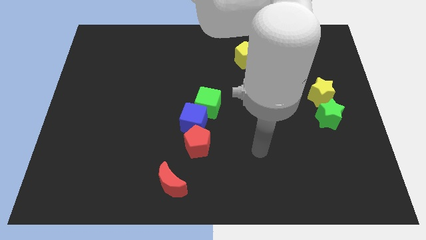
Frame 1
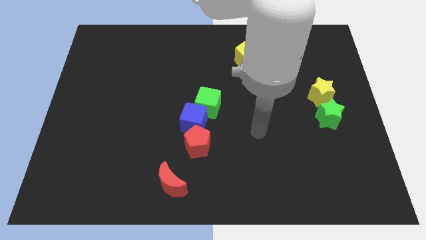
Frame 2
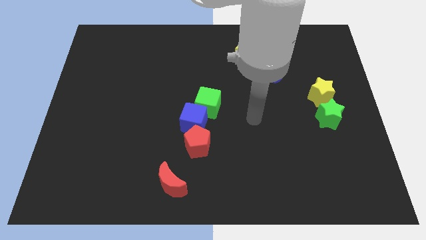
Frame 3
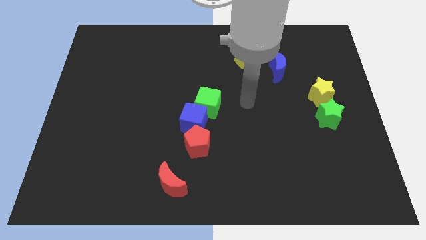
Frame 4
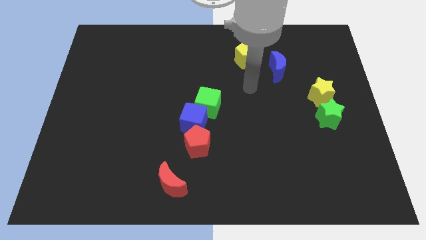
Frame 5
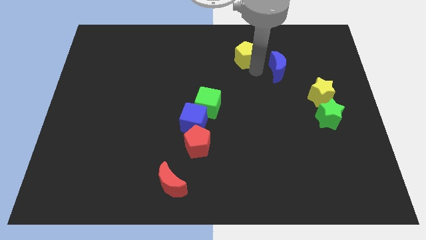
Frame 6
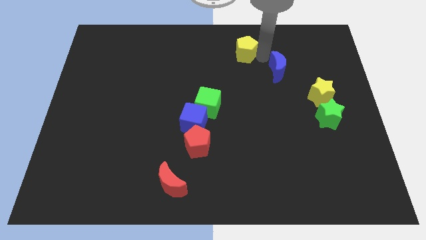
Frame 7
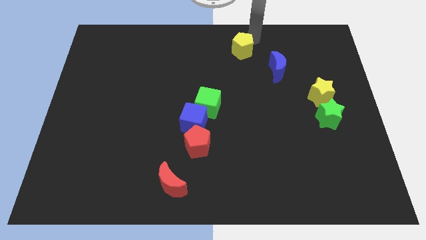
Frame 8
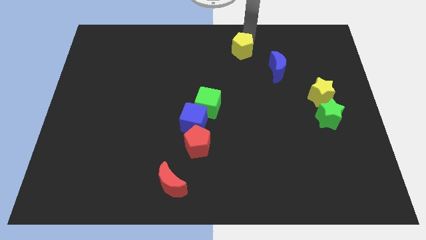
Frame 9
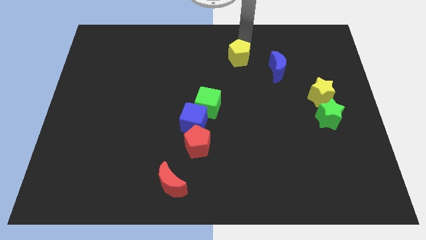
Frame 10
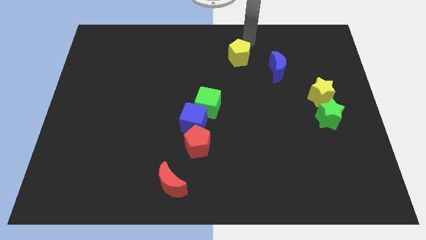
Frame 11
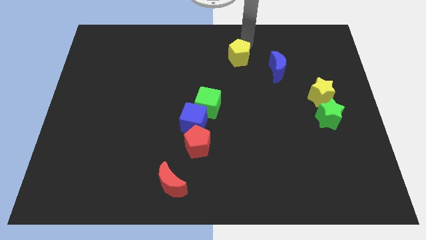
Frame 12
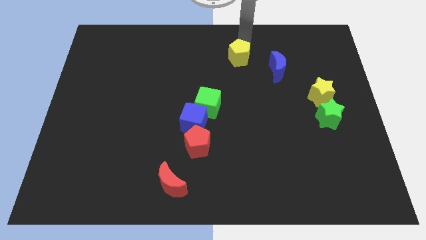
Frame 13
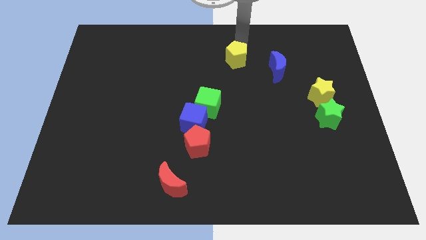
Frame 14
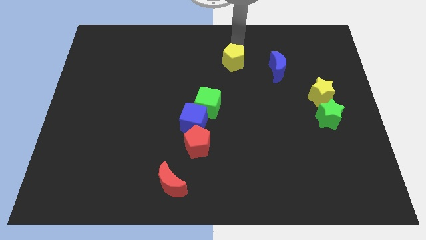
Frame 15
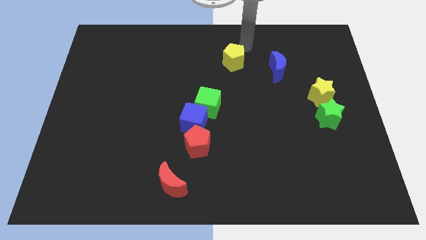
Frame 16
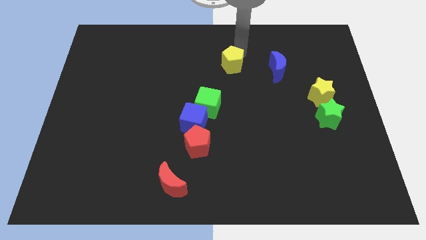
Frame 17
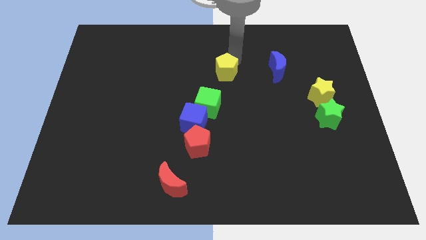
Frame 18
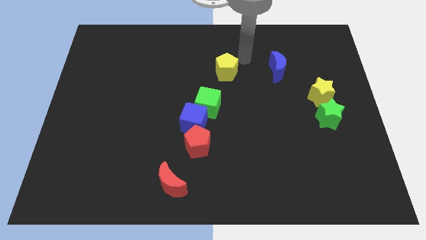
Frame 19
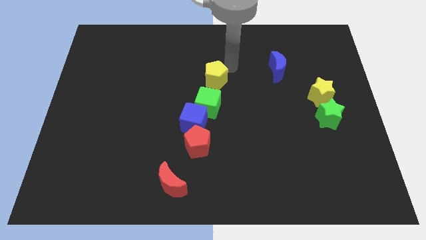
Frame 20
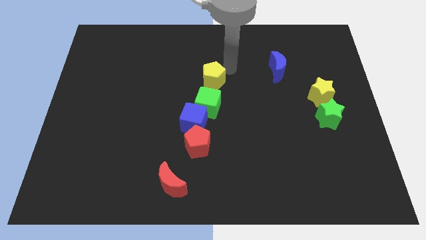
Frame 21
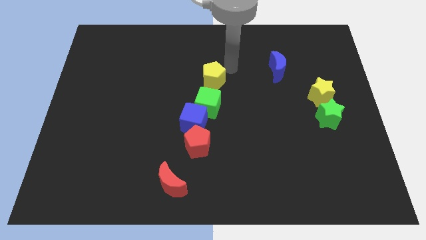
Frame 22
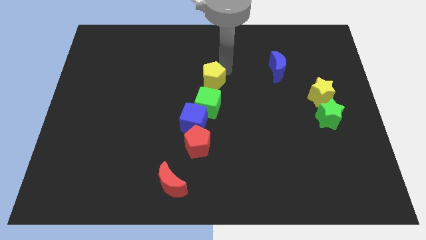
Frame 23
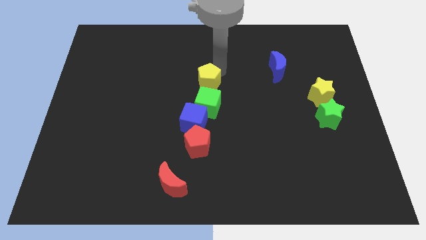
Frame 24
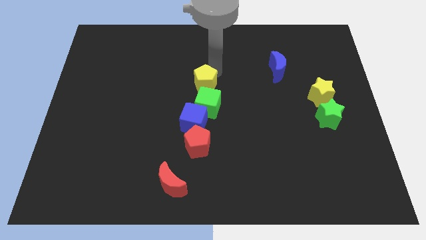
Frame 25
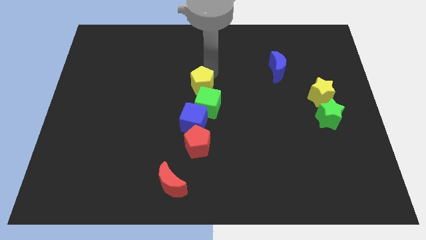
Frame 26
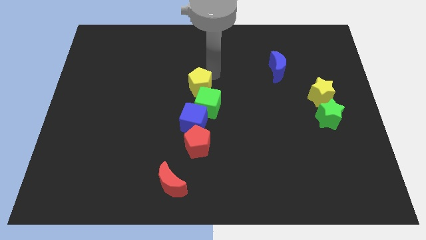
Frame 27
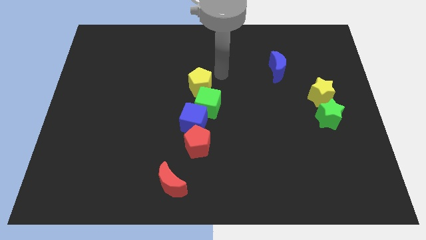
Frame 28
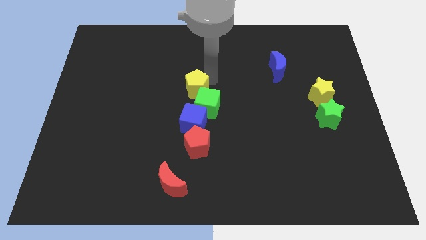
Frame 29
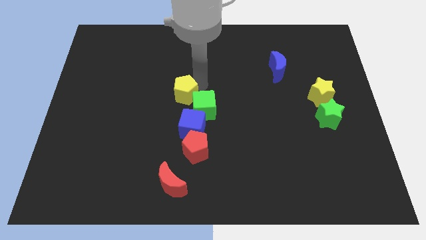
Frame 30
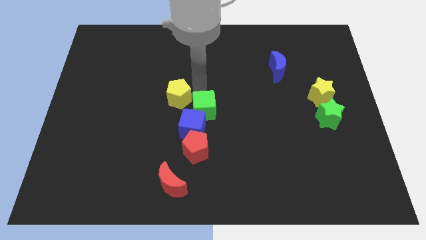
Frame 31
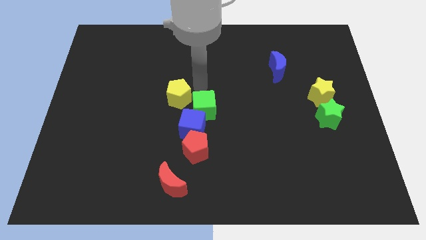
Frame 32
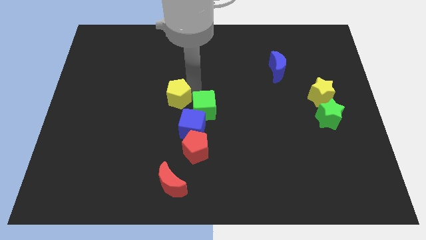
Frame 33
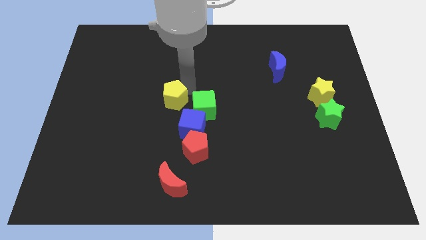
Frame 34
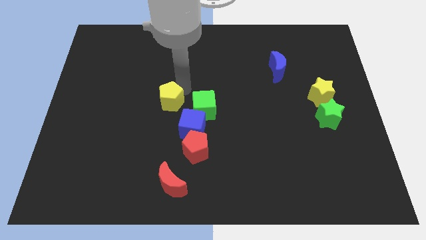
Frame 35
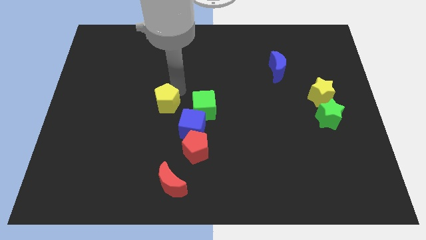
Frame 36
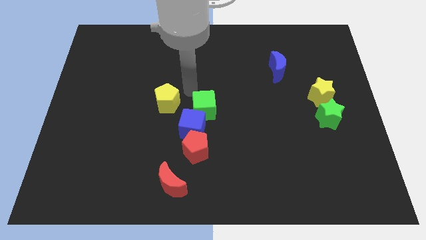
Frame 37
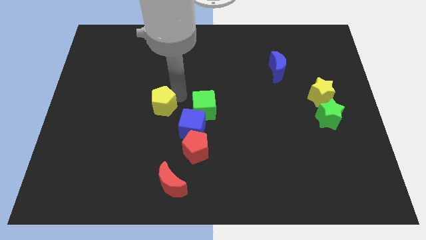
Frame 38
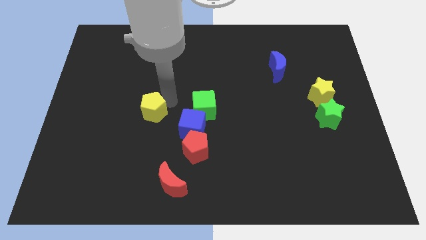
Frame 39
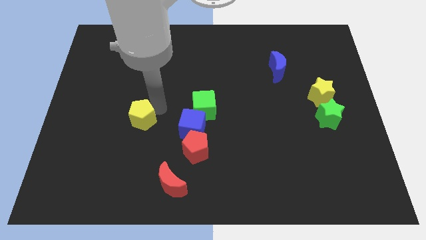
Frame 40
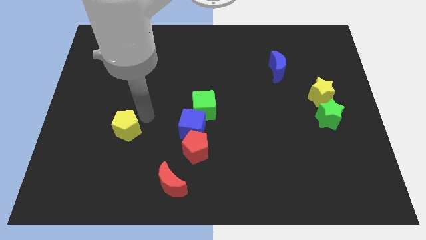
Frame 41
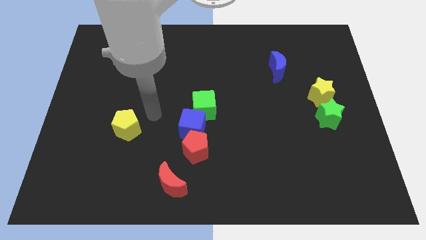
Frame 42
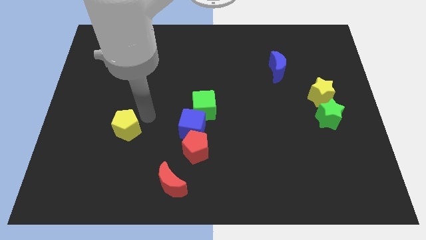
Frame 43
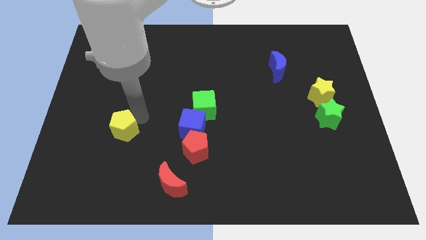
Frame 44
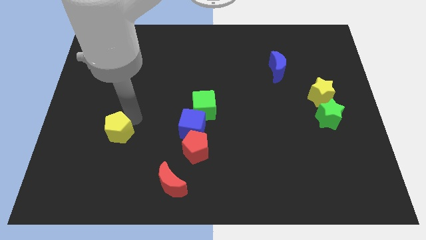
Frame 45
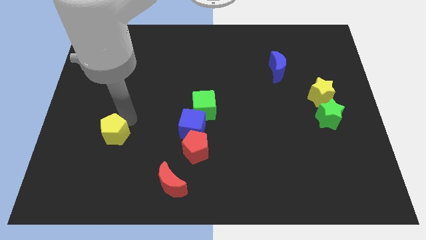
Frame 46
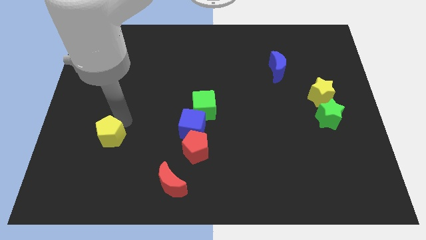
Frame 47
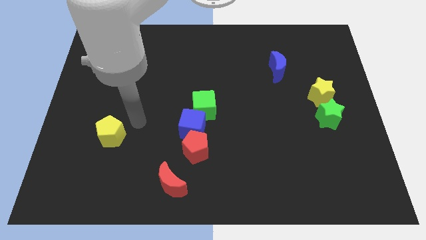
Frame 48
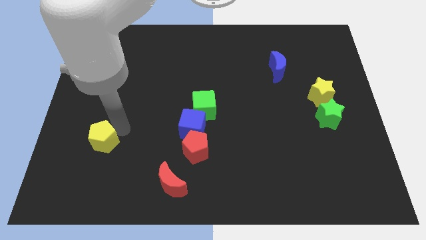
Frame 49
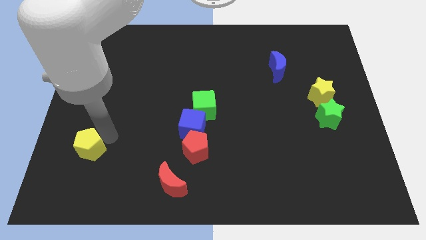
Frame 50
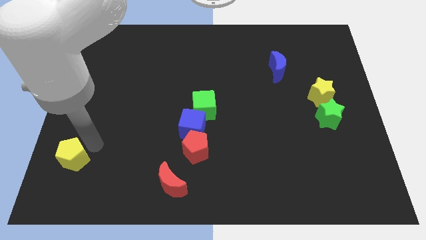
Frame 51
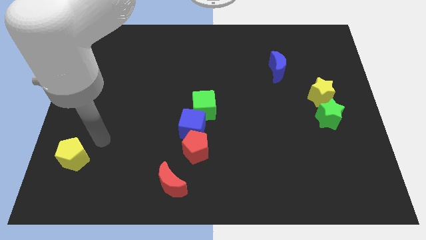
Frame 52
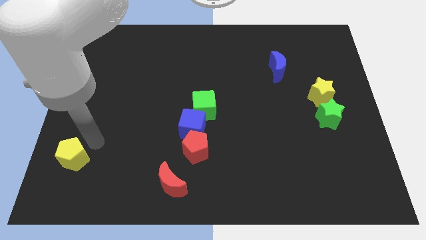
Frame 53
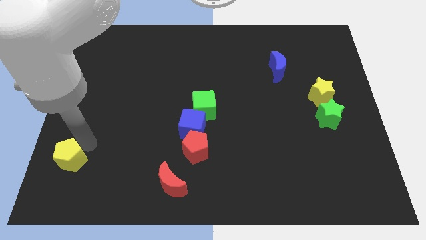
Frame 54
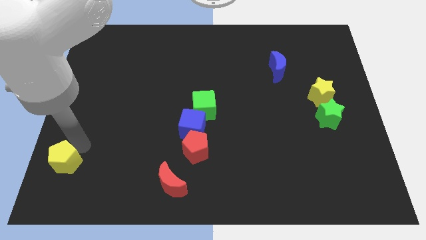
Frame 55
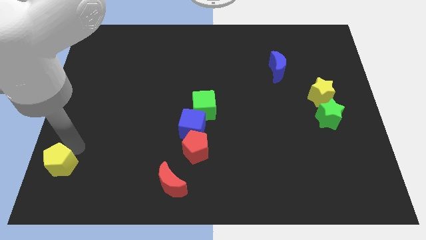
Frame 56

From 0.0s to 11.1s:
put the yellow pentagon to the bottom left of the board

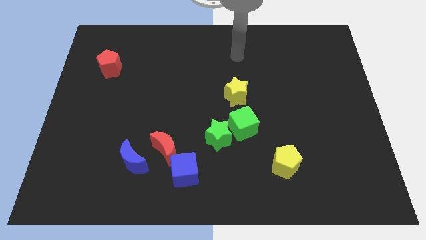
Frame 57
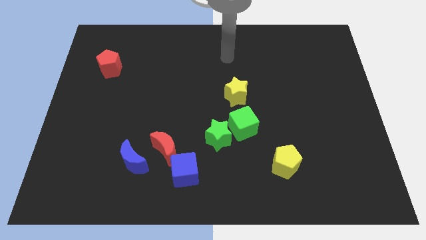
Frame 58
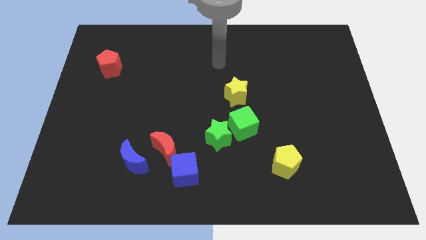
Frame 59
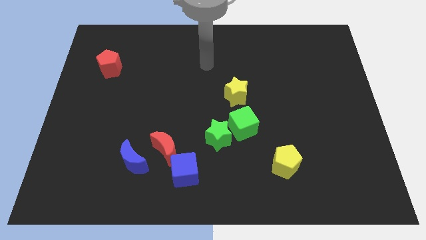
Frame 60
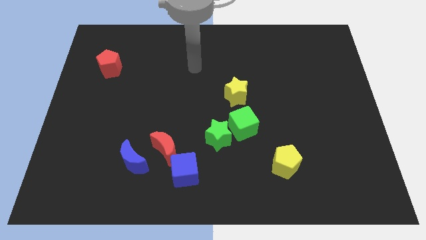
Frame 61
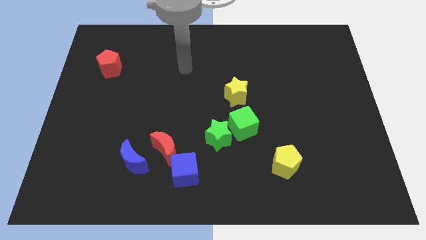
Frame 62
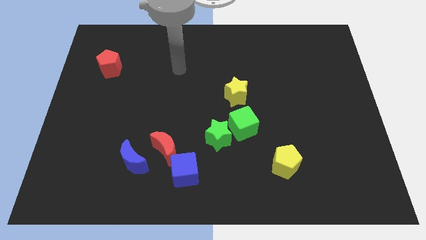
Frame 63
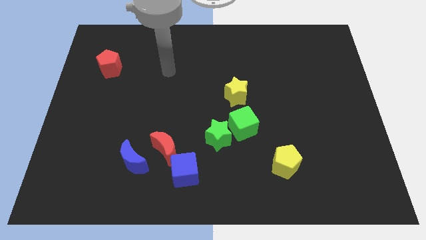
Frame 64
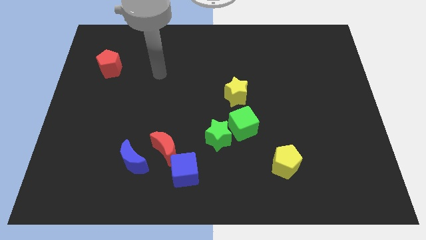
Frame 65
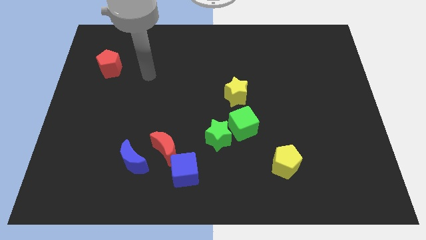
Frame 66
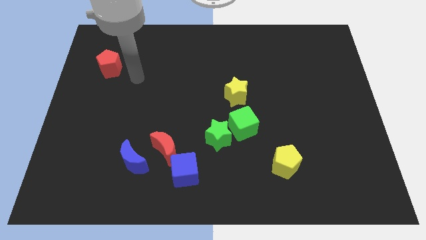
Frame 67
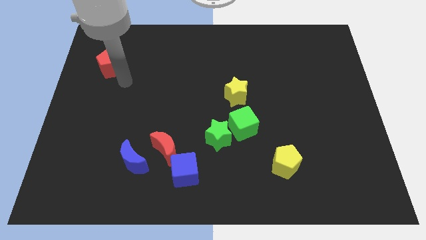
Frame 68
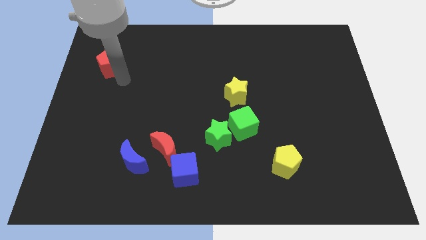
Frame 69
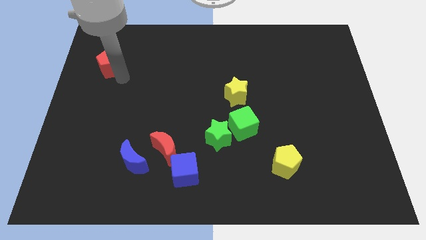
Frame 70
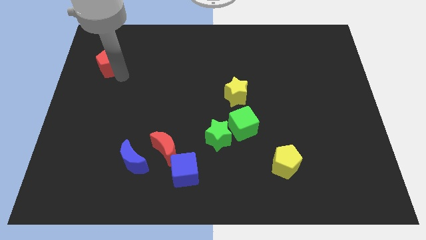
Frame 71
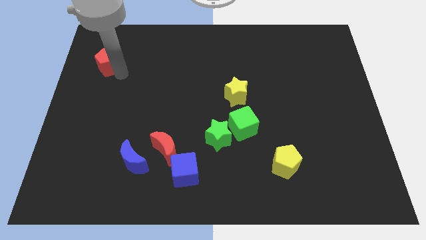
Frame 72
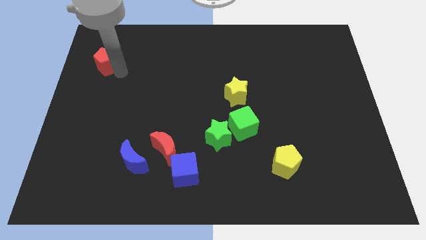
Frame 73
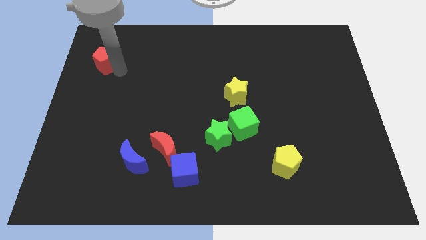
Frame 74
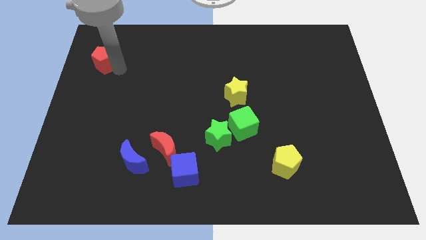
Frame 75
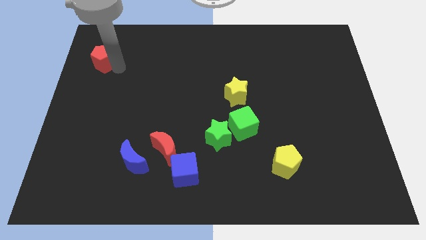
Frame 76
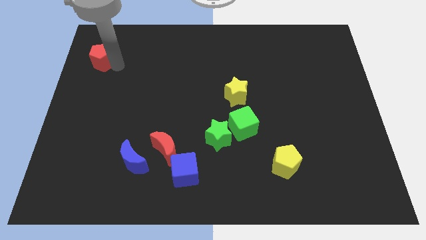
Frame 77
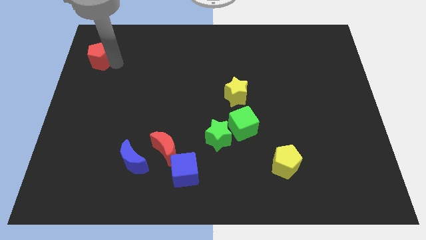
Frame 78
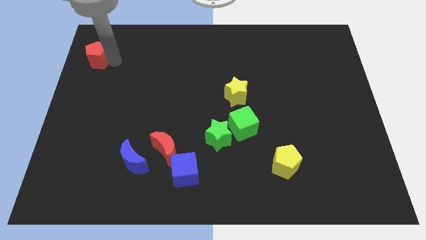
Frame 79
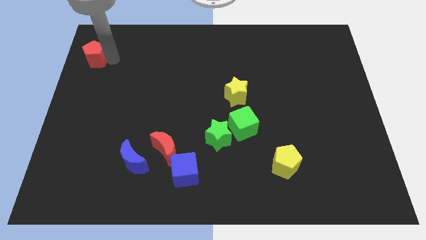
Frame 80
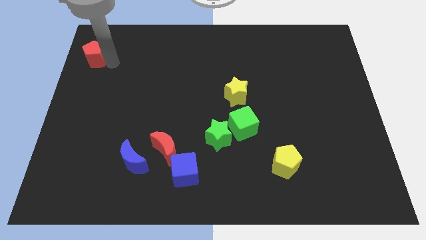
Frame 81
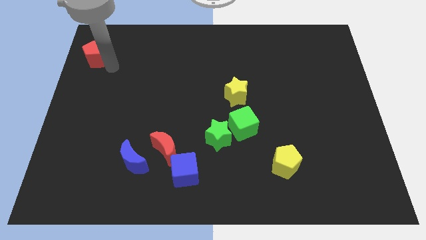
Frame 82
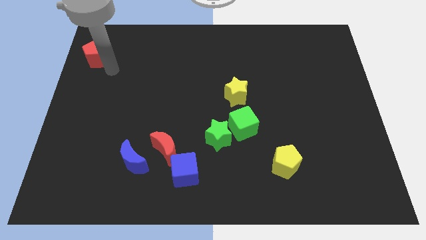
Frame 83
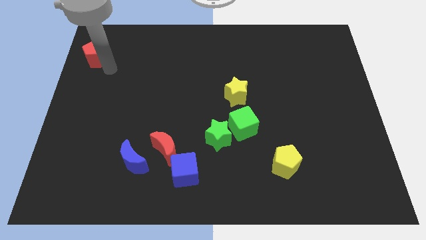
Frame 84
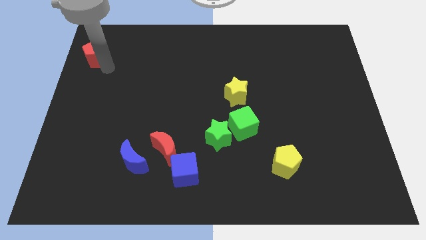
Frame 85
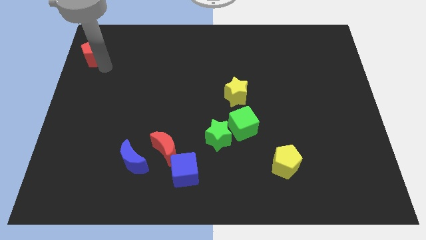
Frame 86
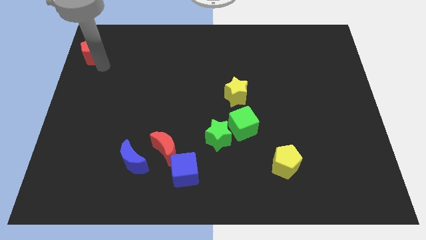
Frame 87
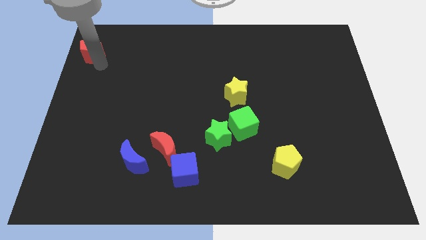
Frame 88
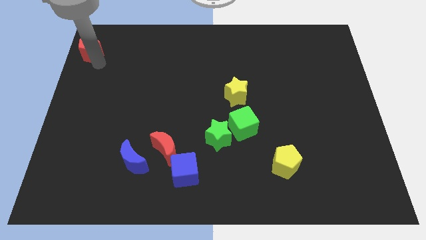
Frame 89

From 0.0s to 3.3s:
slide the red pentagon to the upper left corner
